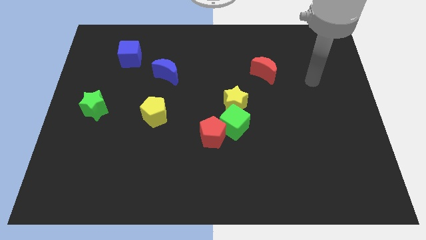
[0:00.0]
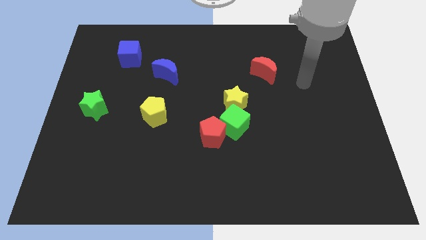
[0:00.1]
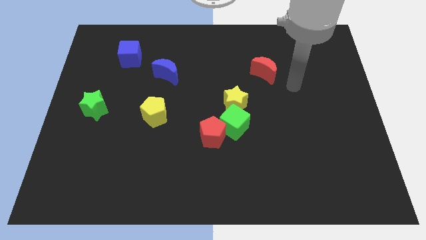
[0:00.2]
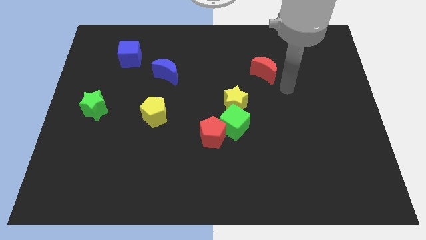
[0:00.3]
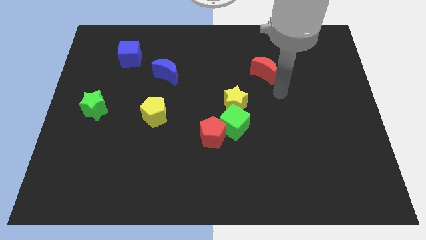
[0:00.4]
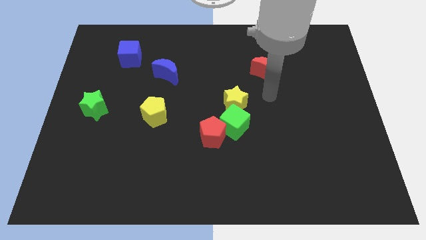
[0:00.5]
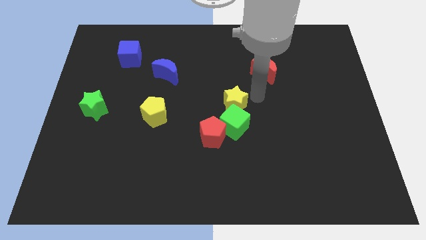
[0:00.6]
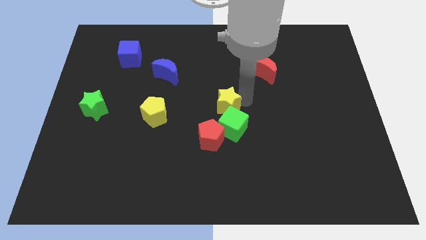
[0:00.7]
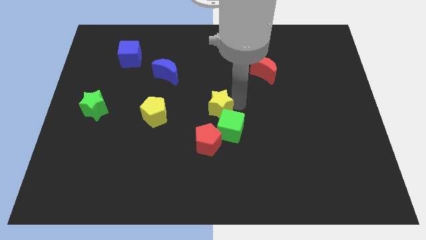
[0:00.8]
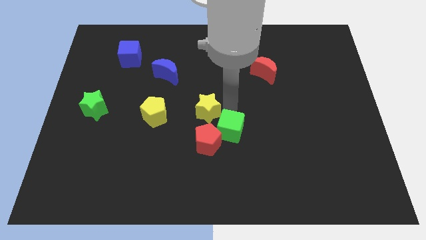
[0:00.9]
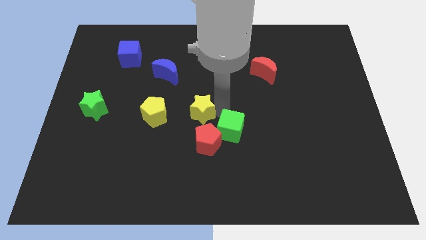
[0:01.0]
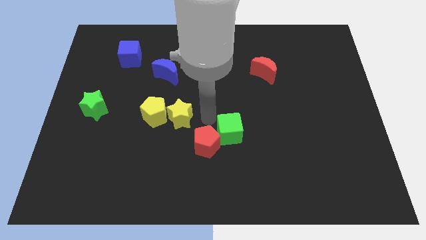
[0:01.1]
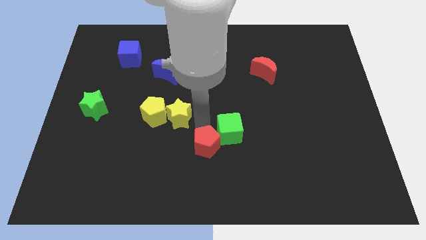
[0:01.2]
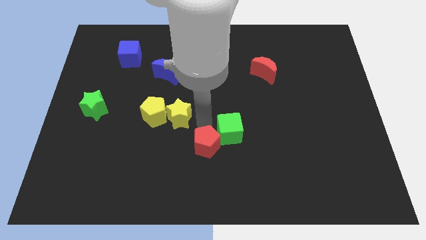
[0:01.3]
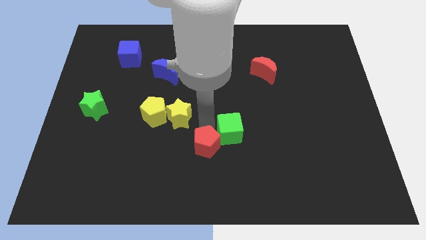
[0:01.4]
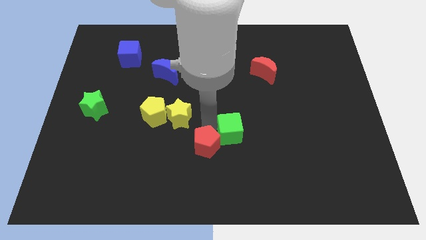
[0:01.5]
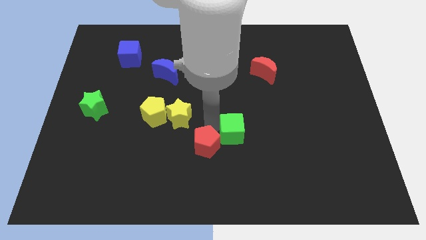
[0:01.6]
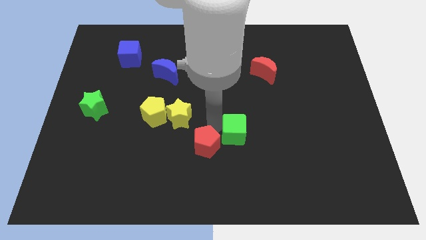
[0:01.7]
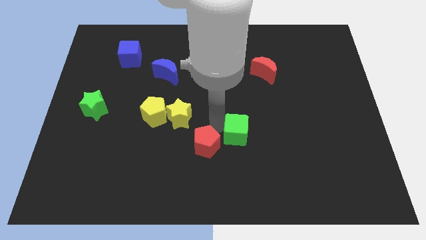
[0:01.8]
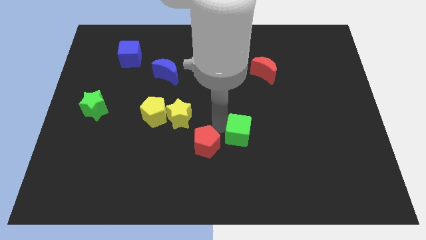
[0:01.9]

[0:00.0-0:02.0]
separate the green cube from the red pentagon and yellow star

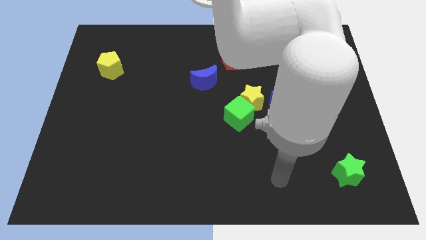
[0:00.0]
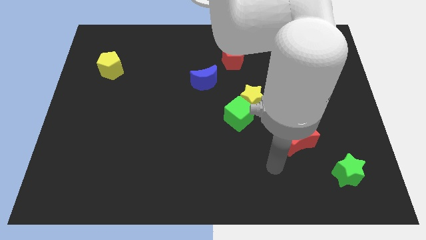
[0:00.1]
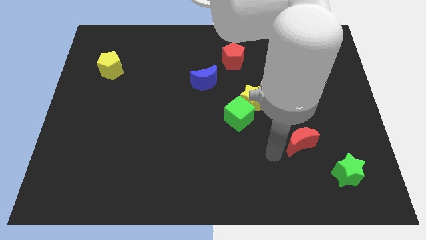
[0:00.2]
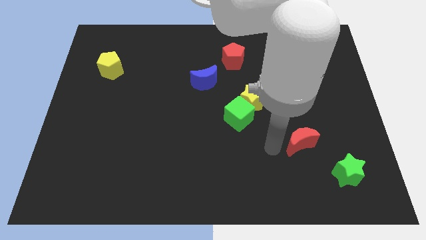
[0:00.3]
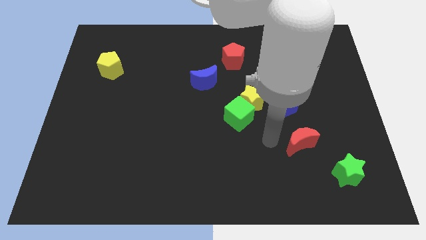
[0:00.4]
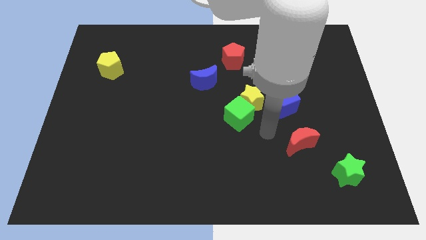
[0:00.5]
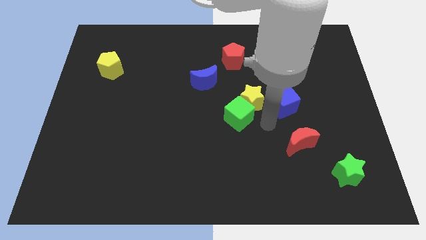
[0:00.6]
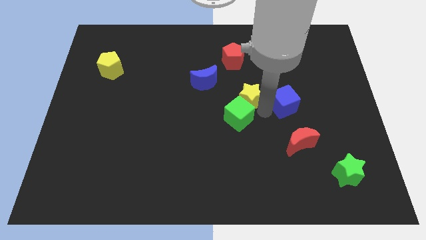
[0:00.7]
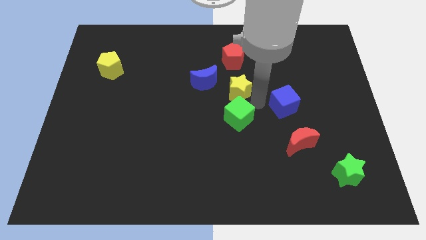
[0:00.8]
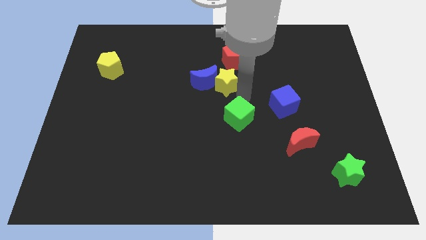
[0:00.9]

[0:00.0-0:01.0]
separate the green cube from the yellow star

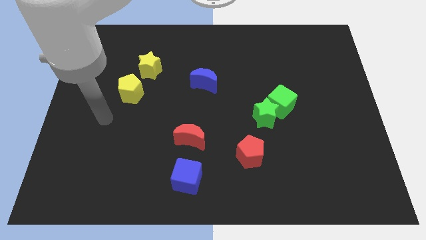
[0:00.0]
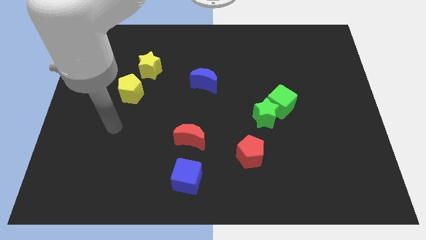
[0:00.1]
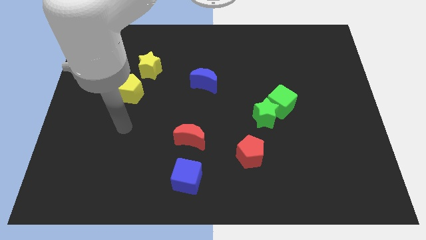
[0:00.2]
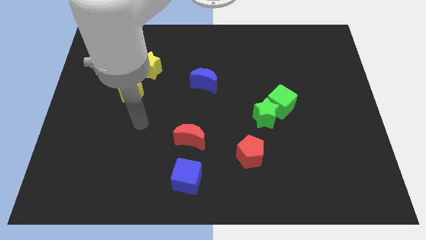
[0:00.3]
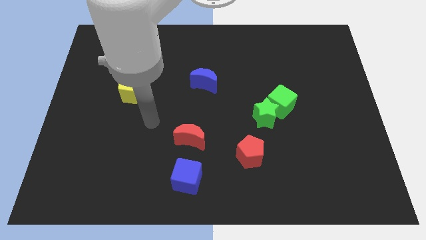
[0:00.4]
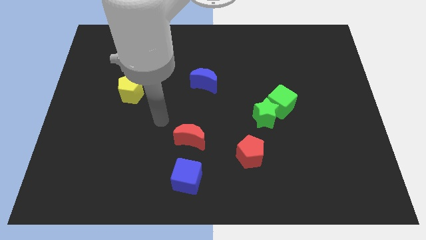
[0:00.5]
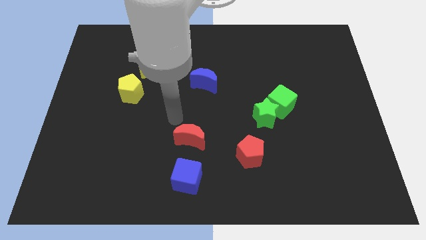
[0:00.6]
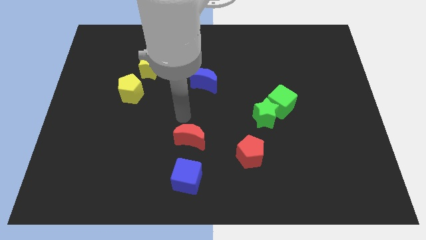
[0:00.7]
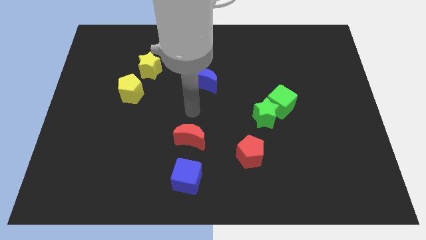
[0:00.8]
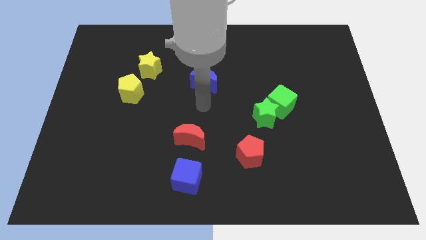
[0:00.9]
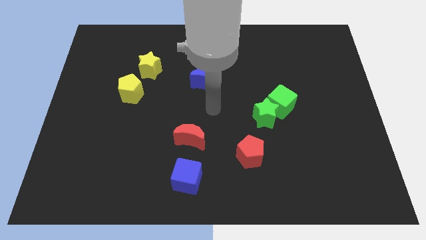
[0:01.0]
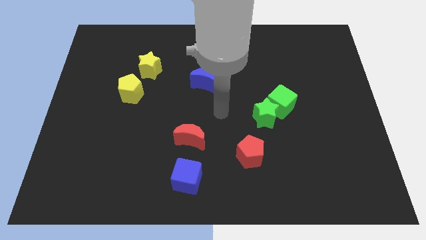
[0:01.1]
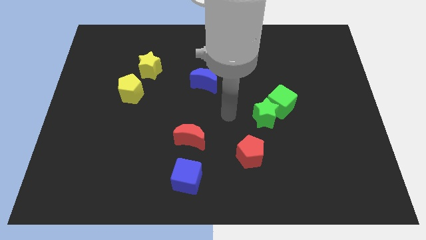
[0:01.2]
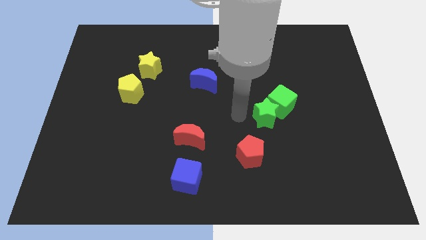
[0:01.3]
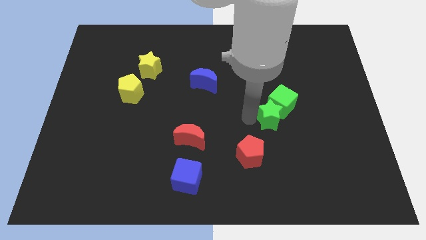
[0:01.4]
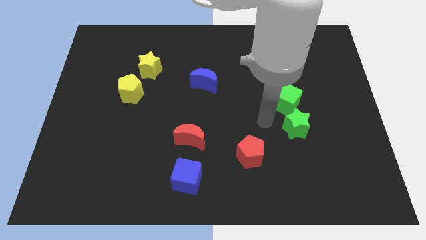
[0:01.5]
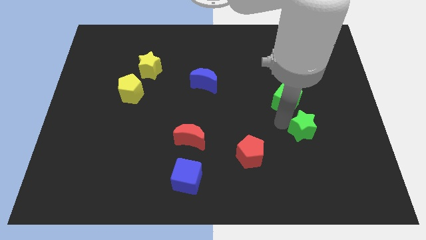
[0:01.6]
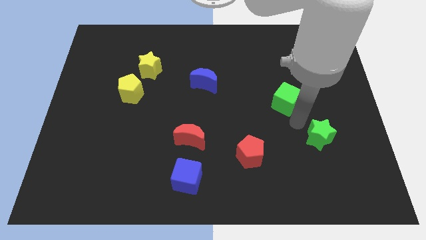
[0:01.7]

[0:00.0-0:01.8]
pull the green cube apart from the green star

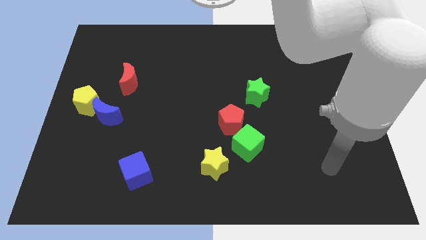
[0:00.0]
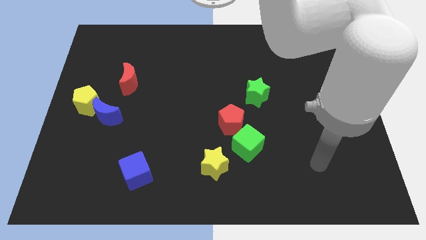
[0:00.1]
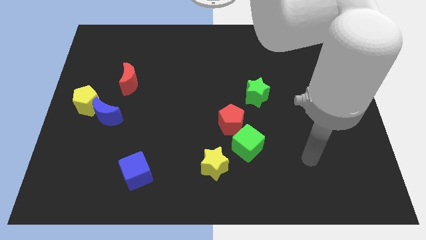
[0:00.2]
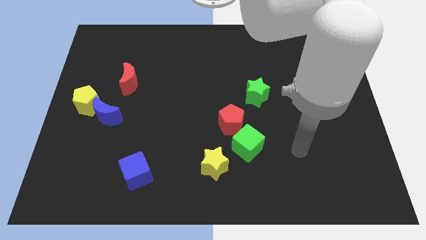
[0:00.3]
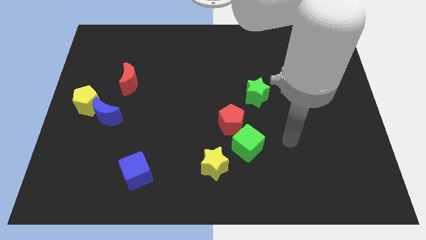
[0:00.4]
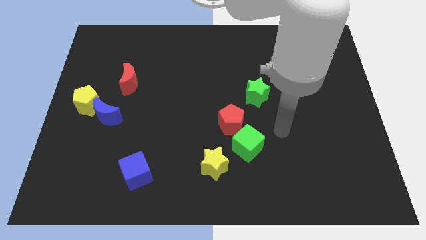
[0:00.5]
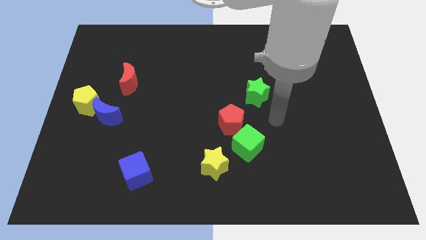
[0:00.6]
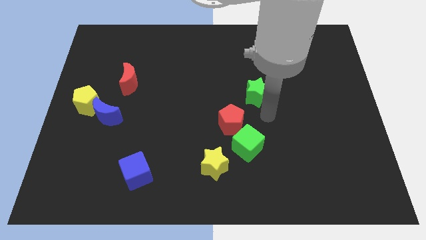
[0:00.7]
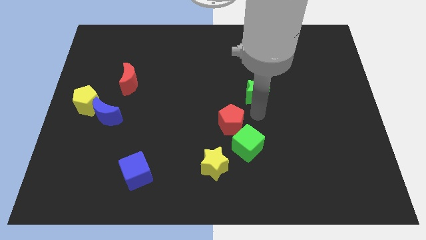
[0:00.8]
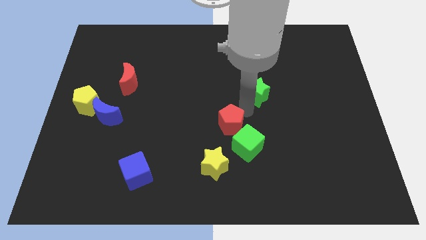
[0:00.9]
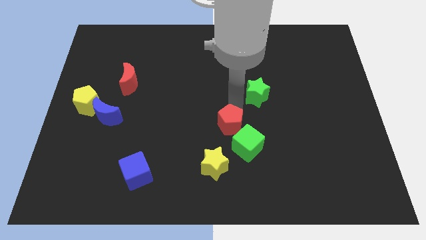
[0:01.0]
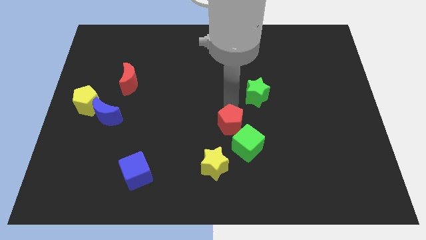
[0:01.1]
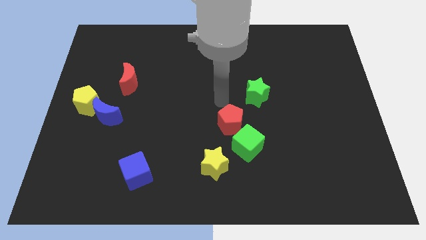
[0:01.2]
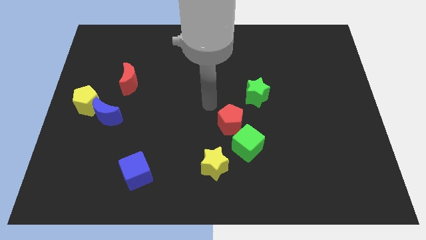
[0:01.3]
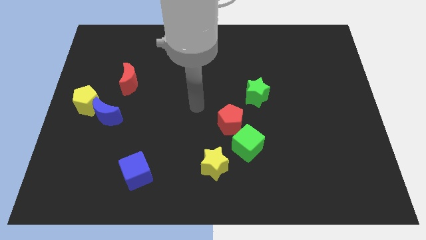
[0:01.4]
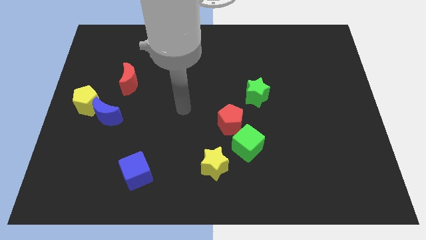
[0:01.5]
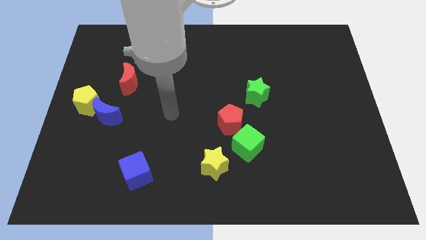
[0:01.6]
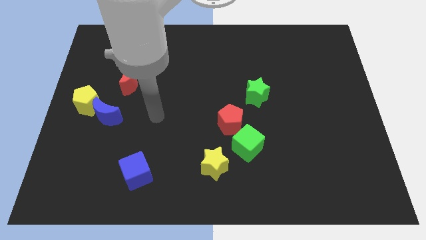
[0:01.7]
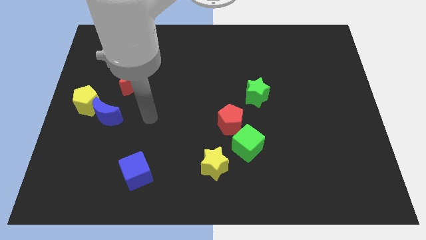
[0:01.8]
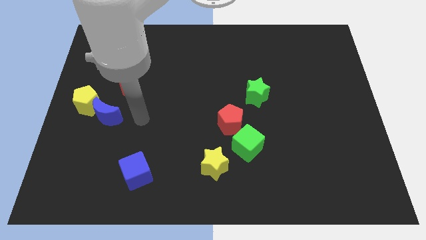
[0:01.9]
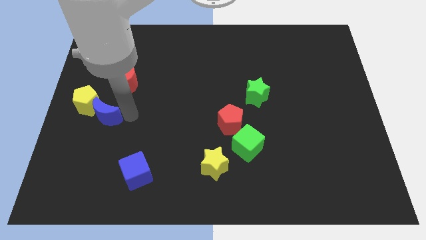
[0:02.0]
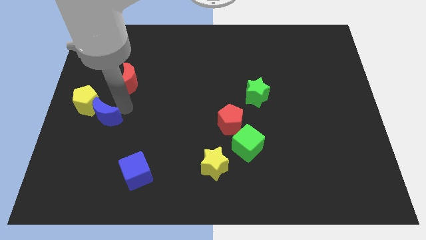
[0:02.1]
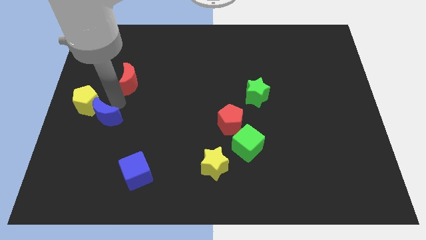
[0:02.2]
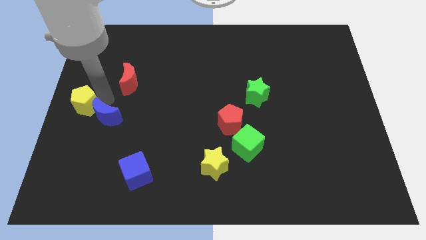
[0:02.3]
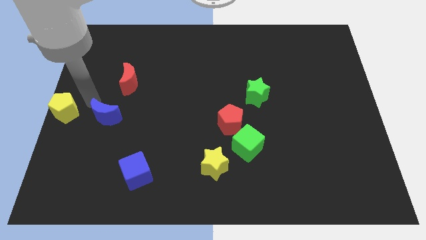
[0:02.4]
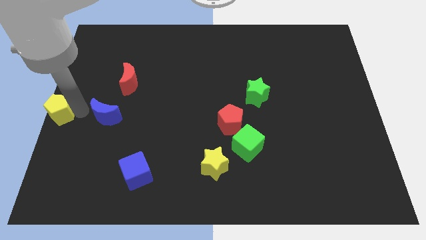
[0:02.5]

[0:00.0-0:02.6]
move the blue moon away from the yellow pentagon

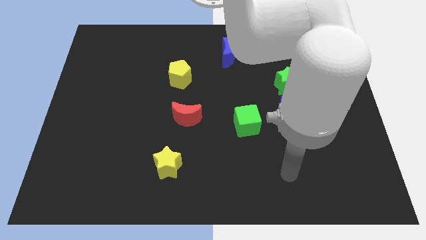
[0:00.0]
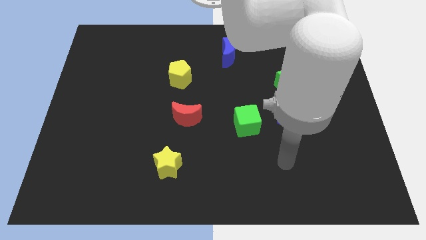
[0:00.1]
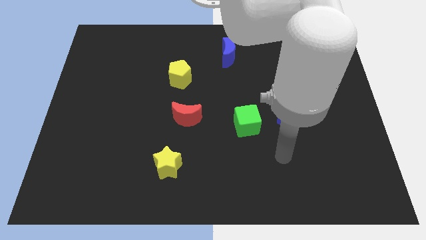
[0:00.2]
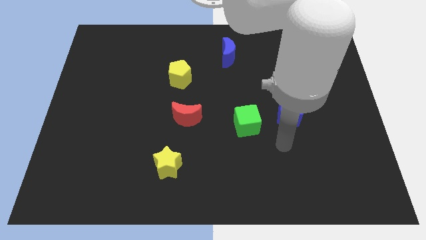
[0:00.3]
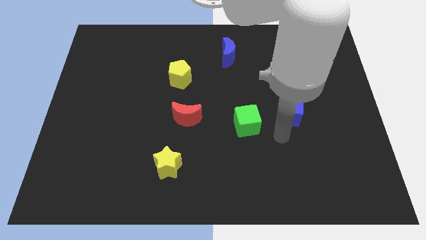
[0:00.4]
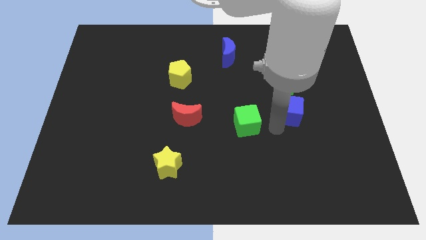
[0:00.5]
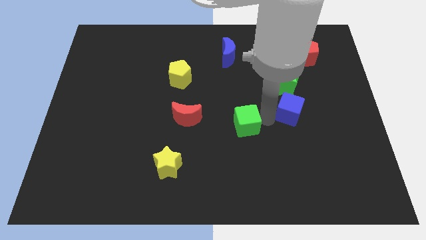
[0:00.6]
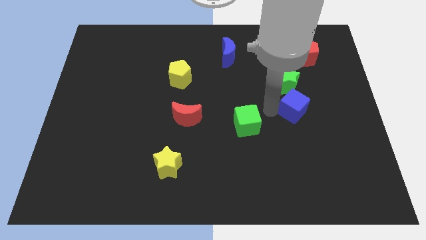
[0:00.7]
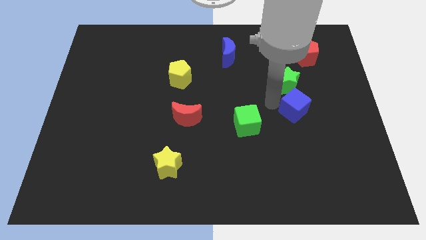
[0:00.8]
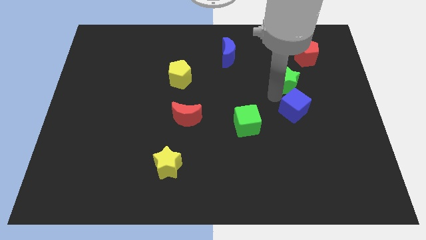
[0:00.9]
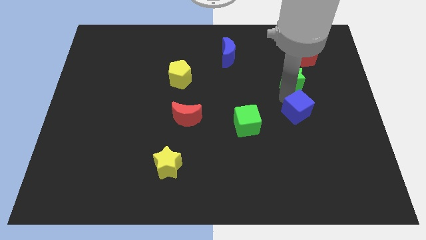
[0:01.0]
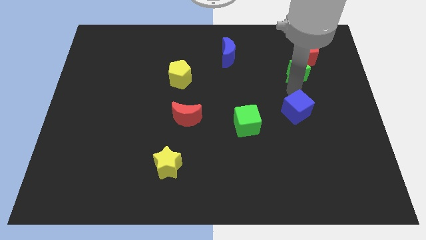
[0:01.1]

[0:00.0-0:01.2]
move the blue cube away from the green star

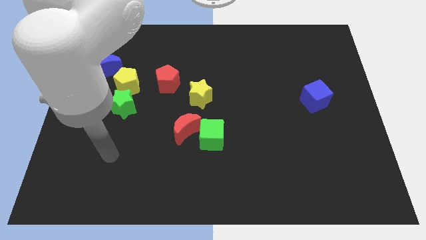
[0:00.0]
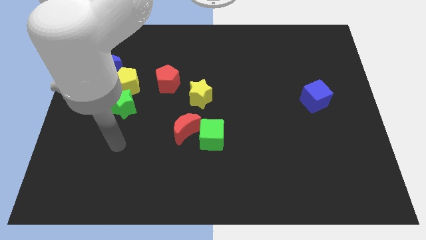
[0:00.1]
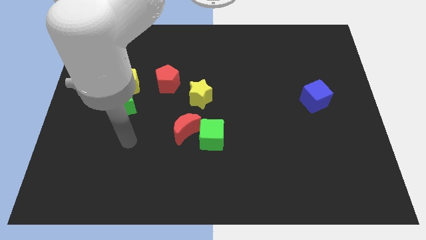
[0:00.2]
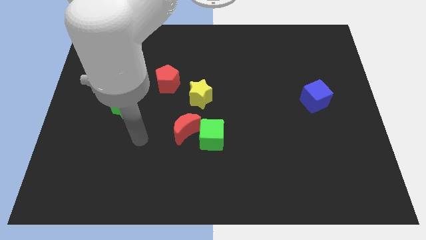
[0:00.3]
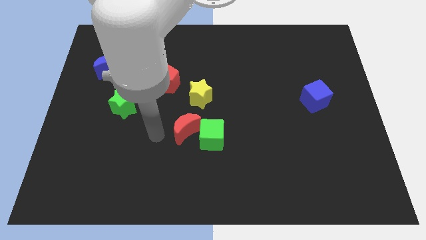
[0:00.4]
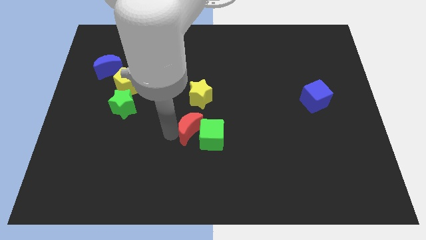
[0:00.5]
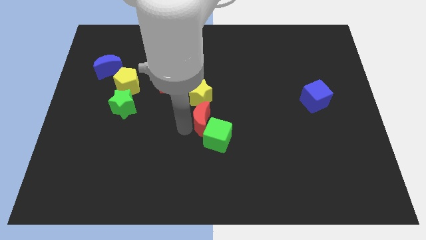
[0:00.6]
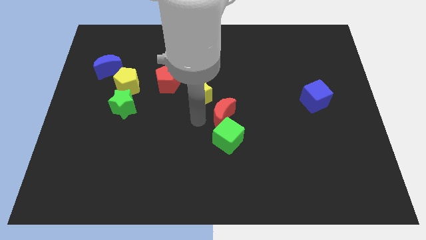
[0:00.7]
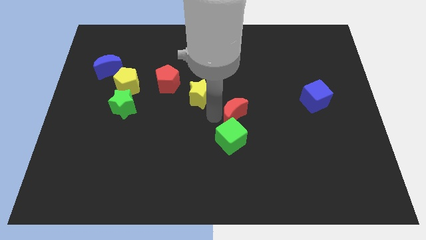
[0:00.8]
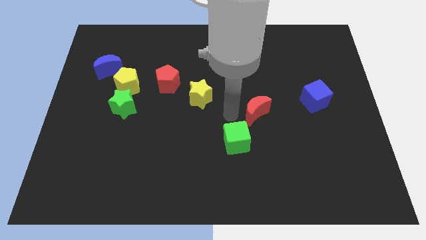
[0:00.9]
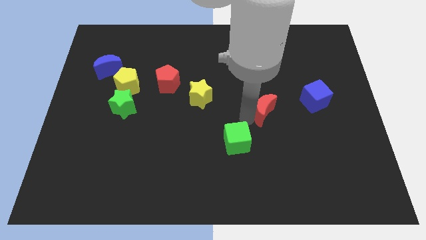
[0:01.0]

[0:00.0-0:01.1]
move the green cube away from the red moon
